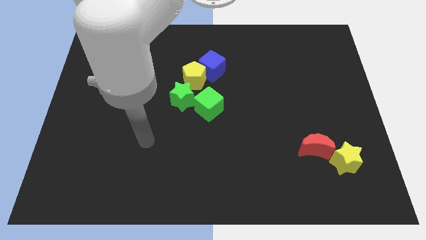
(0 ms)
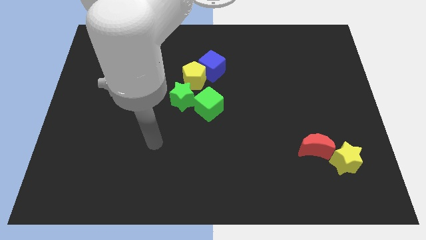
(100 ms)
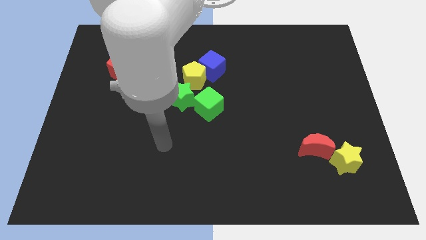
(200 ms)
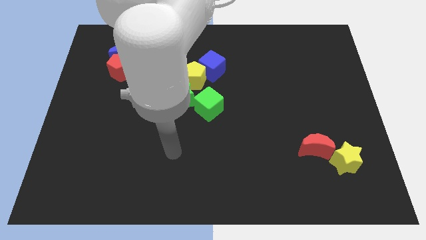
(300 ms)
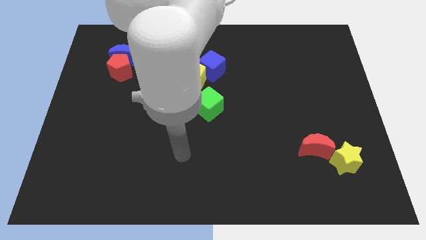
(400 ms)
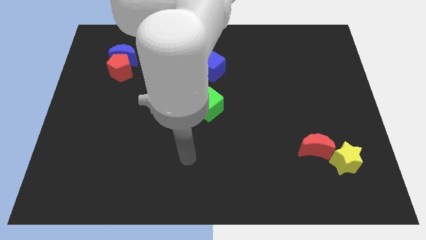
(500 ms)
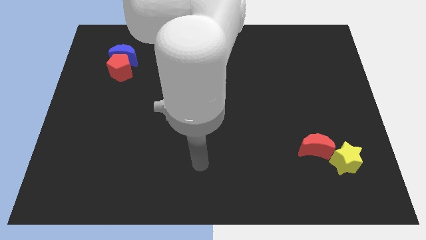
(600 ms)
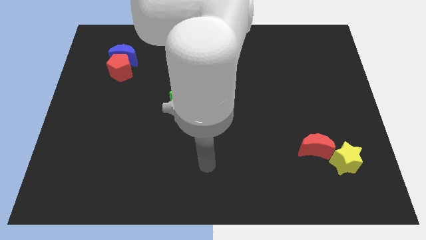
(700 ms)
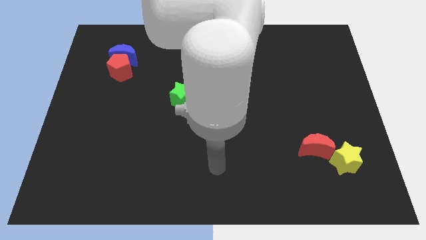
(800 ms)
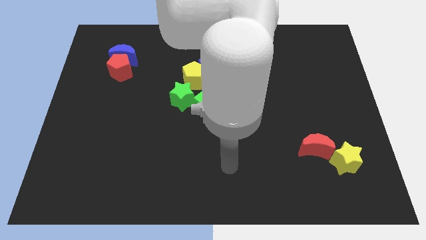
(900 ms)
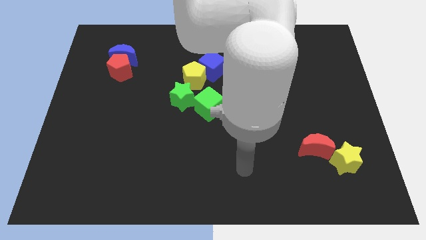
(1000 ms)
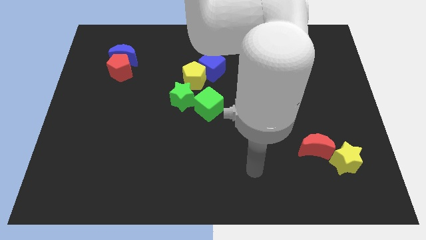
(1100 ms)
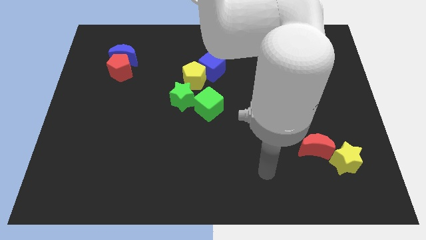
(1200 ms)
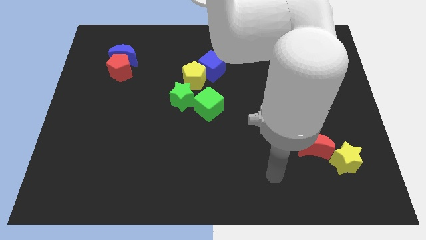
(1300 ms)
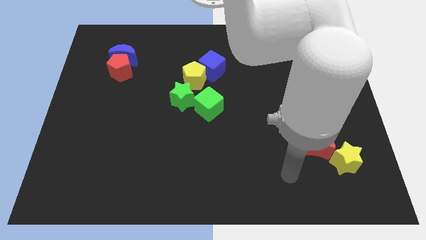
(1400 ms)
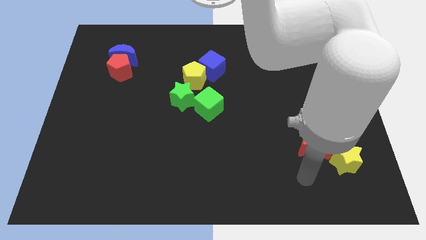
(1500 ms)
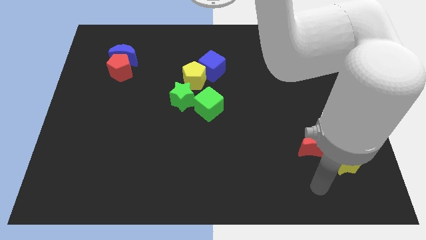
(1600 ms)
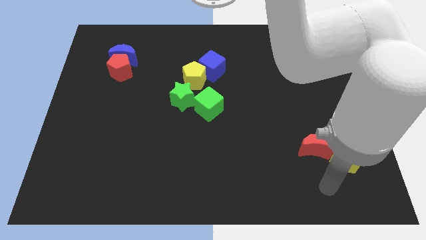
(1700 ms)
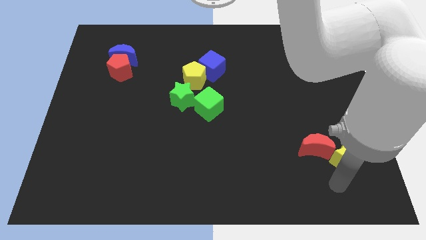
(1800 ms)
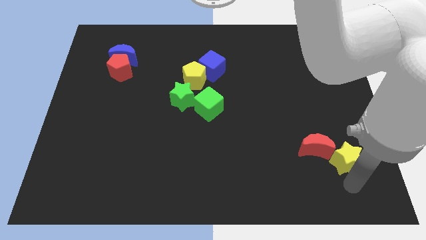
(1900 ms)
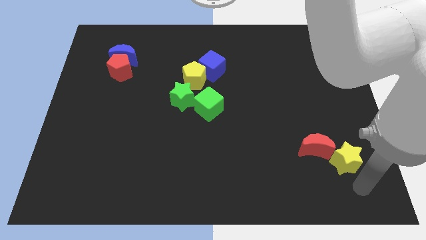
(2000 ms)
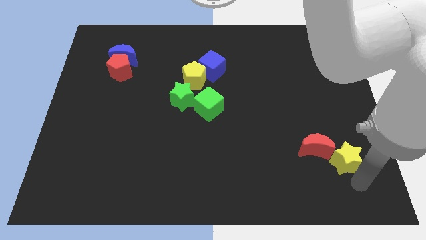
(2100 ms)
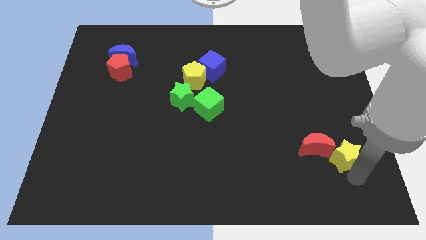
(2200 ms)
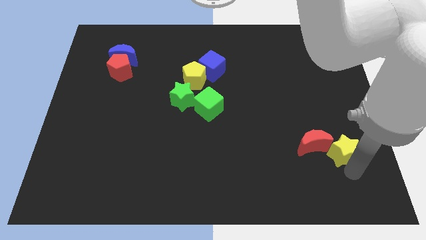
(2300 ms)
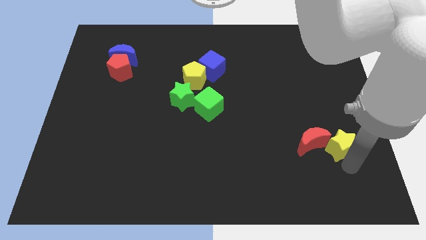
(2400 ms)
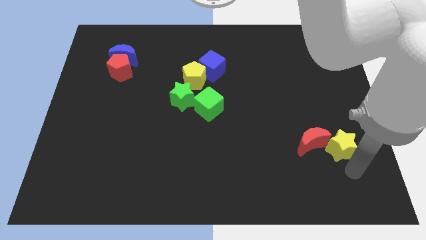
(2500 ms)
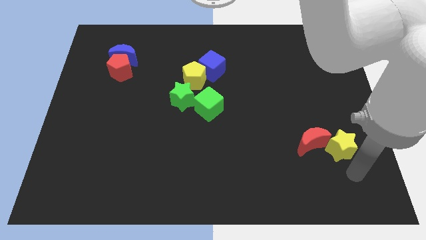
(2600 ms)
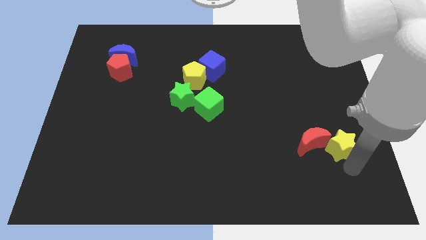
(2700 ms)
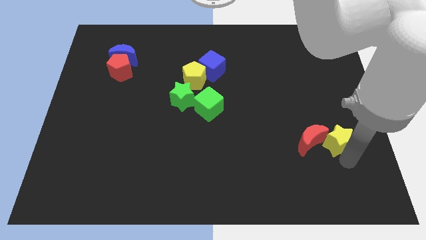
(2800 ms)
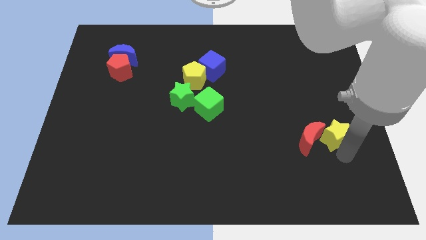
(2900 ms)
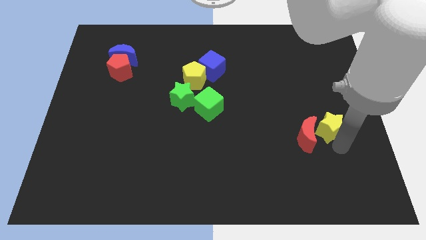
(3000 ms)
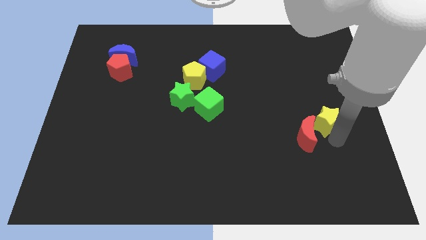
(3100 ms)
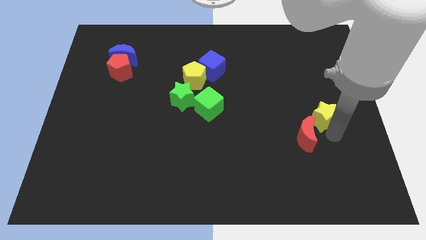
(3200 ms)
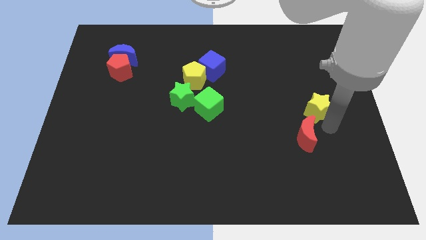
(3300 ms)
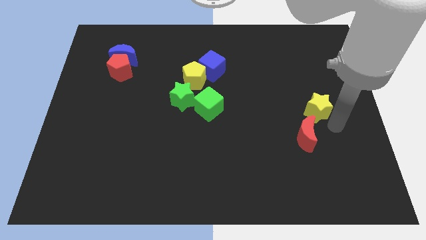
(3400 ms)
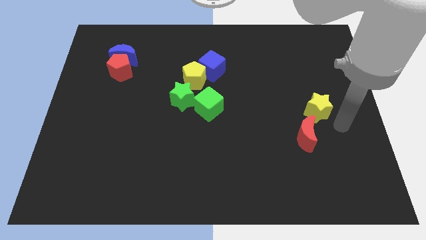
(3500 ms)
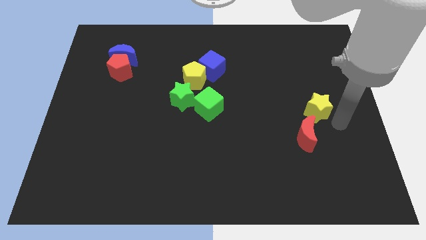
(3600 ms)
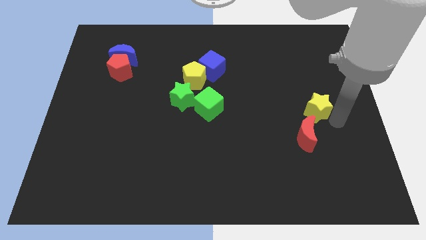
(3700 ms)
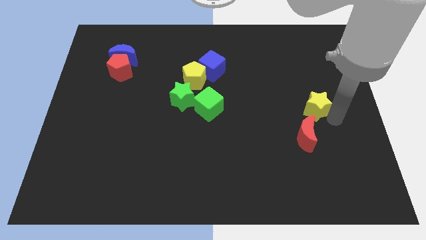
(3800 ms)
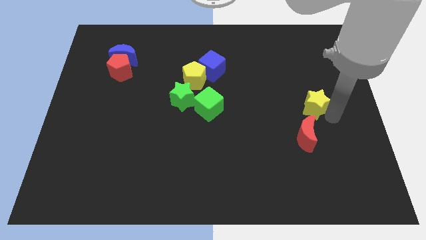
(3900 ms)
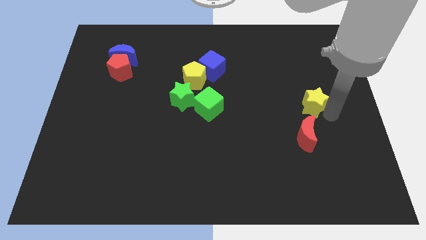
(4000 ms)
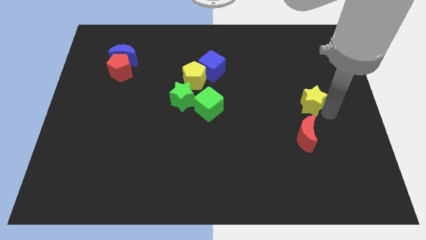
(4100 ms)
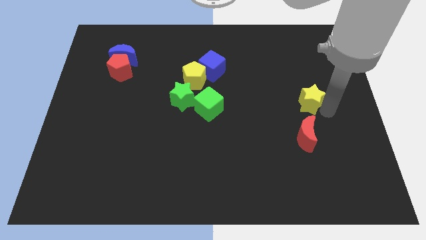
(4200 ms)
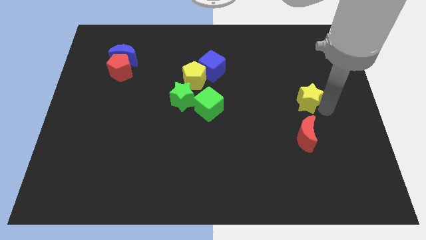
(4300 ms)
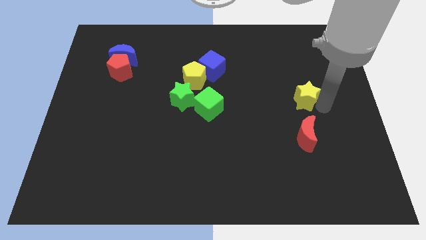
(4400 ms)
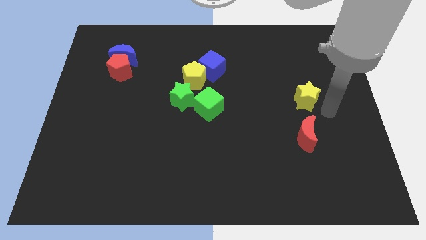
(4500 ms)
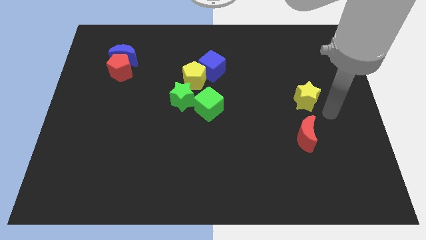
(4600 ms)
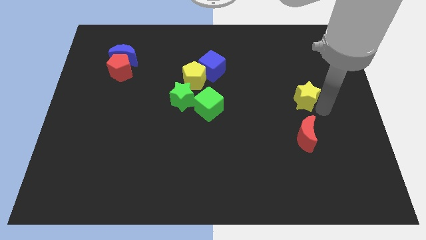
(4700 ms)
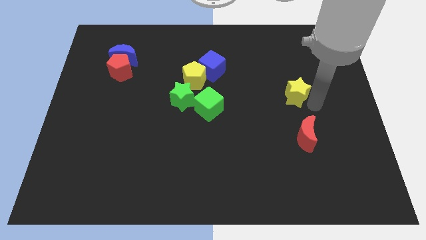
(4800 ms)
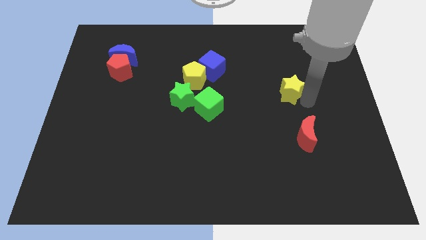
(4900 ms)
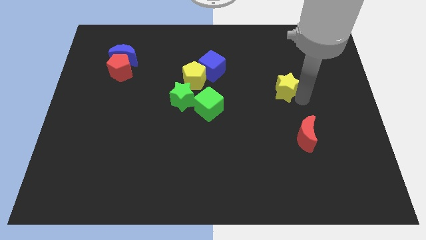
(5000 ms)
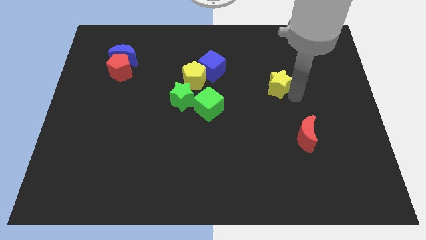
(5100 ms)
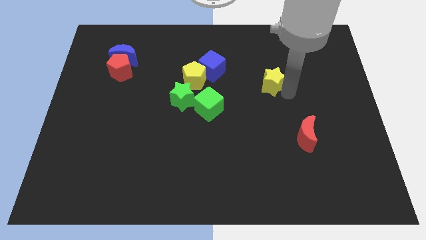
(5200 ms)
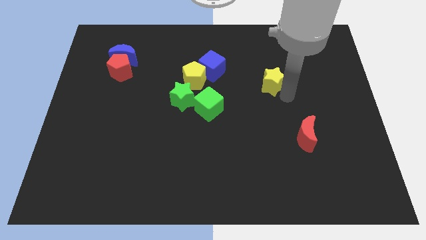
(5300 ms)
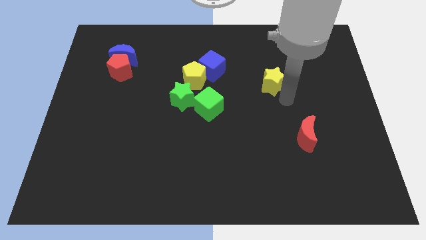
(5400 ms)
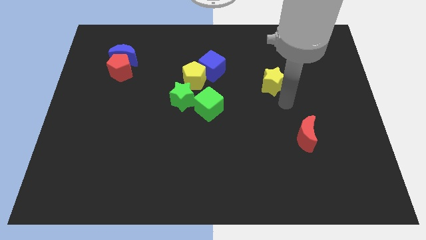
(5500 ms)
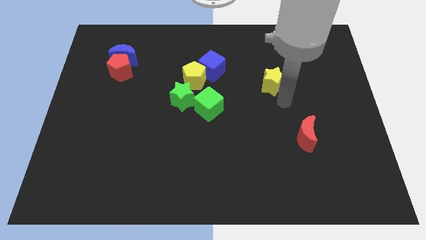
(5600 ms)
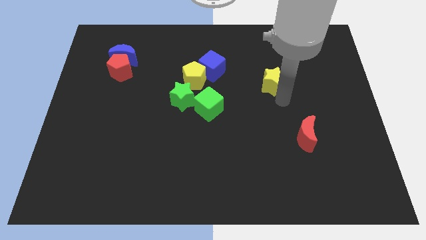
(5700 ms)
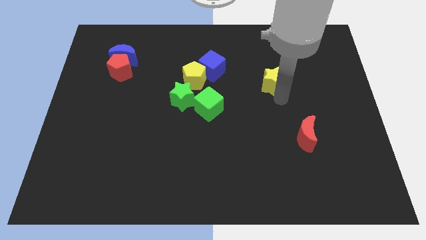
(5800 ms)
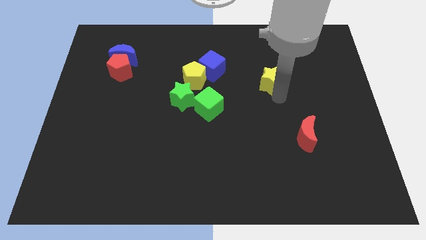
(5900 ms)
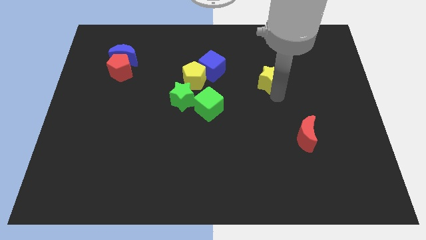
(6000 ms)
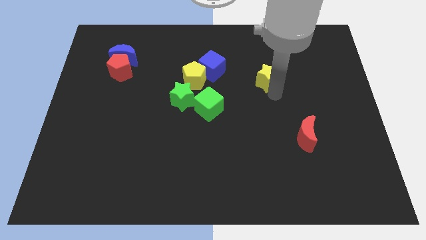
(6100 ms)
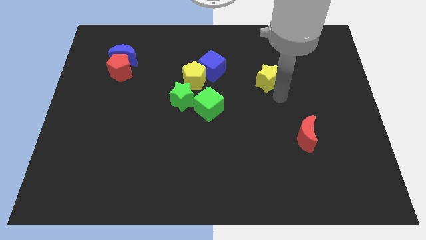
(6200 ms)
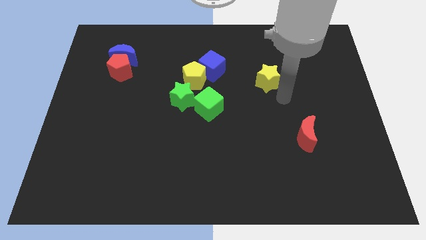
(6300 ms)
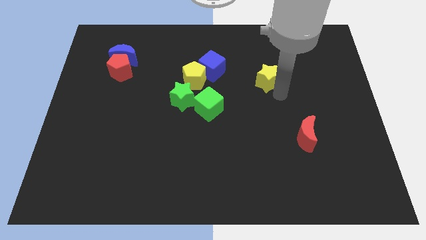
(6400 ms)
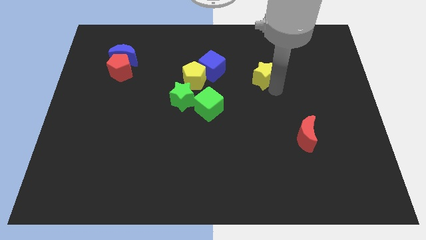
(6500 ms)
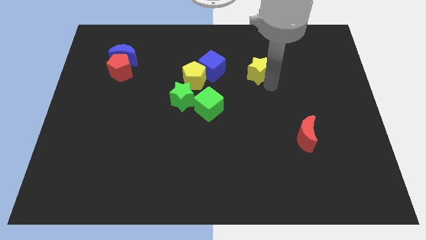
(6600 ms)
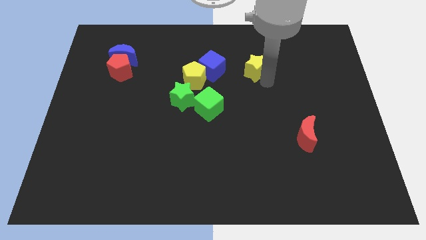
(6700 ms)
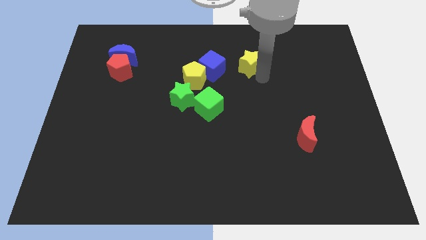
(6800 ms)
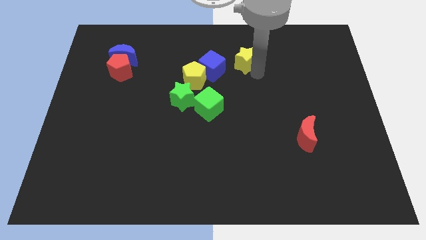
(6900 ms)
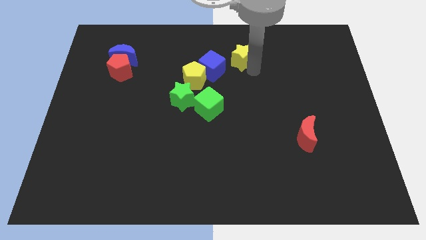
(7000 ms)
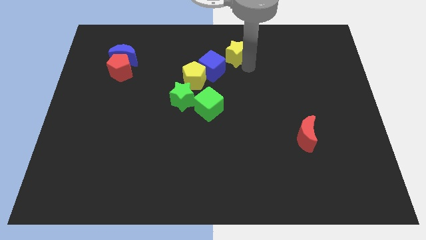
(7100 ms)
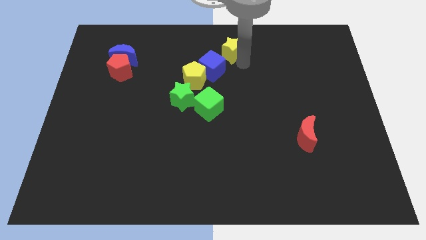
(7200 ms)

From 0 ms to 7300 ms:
move the yellow star to the top
